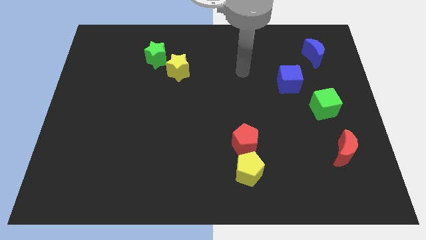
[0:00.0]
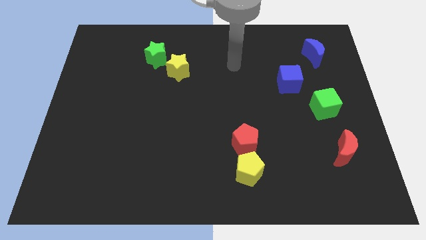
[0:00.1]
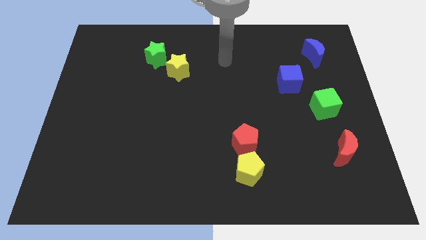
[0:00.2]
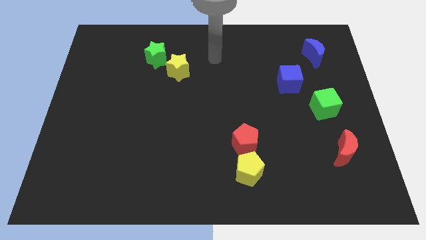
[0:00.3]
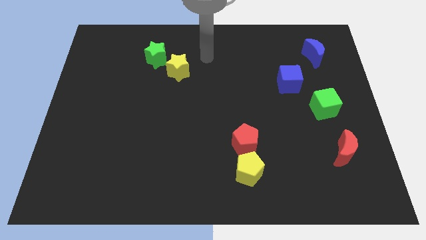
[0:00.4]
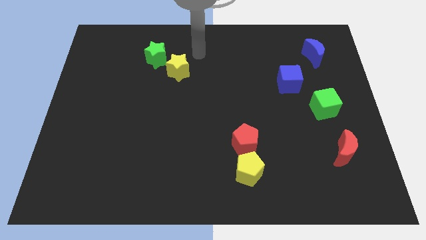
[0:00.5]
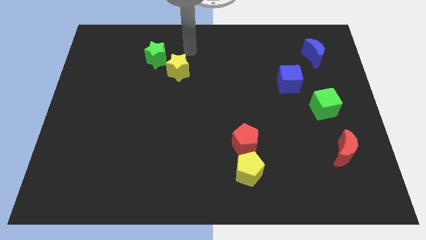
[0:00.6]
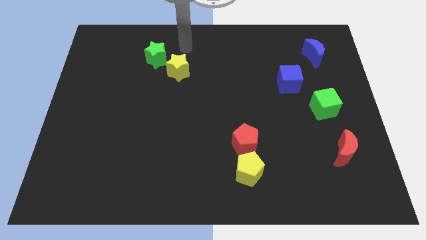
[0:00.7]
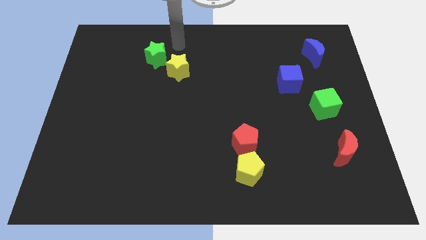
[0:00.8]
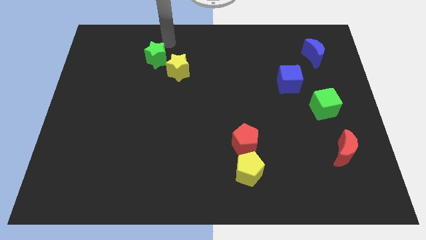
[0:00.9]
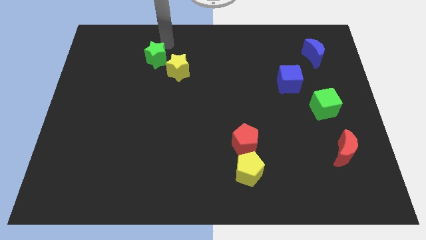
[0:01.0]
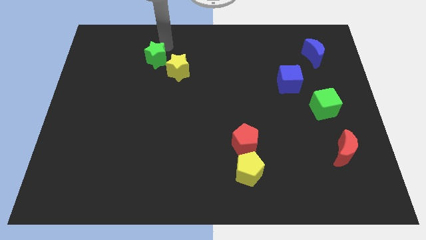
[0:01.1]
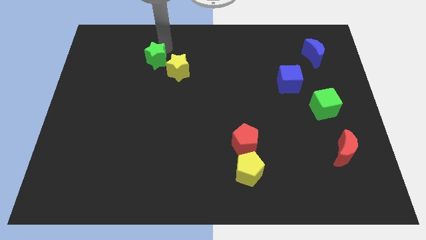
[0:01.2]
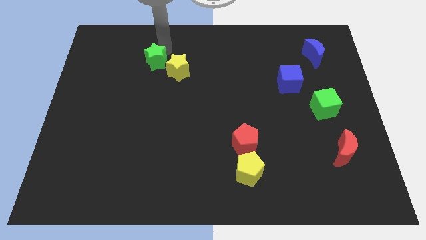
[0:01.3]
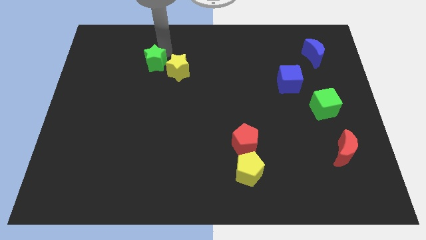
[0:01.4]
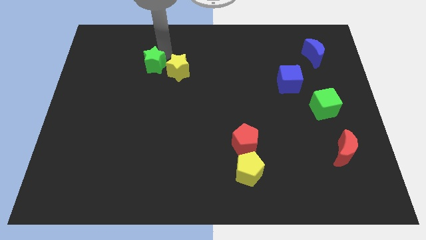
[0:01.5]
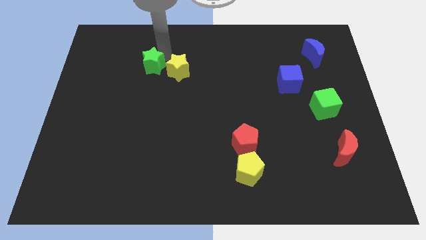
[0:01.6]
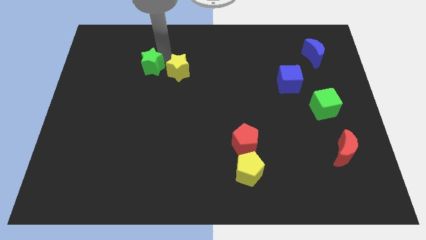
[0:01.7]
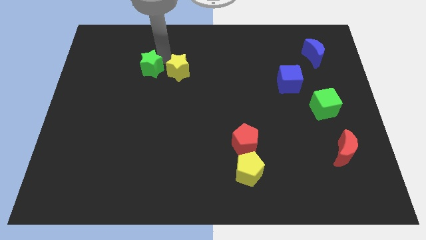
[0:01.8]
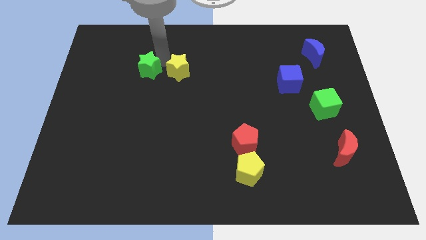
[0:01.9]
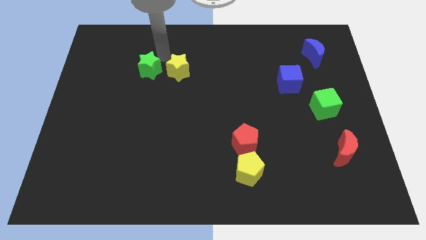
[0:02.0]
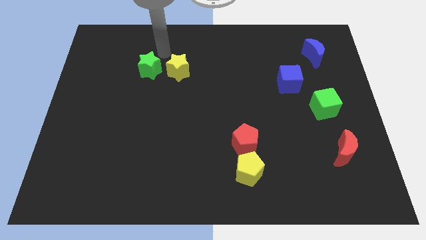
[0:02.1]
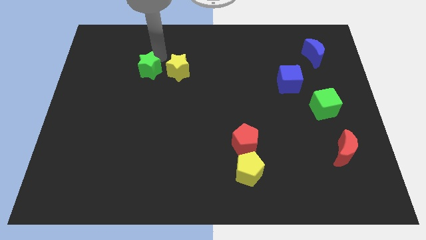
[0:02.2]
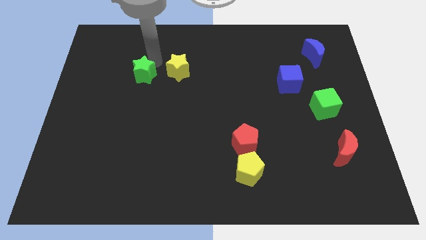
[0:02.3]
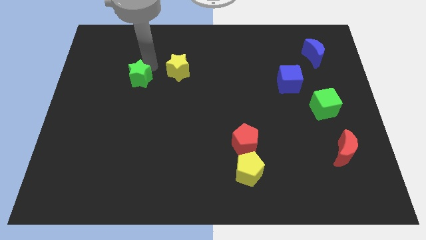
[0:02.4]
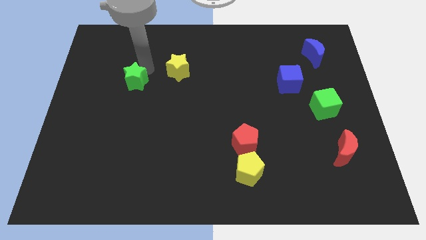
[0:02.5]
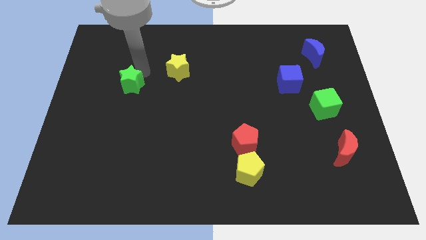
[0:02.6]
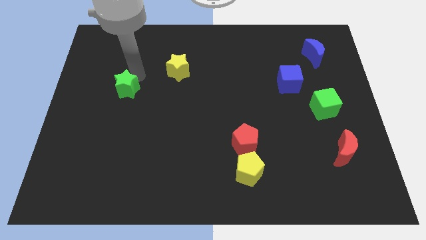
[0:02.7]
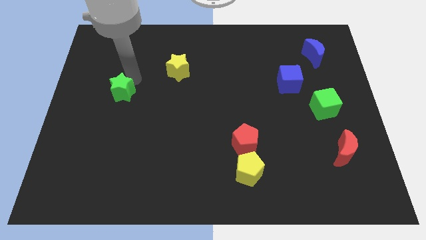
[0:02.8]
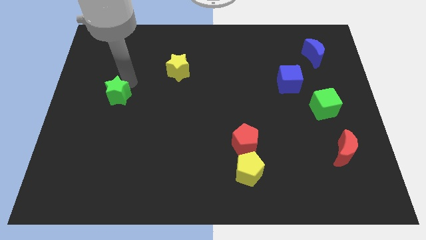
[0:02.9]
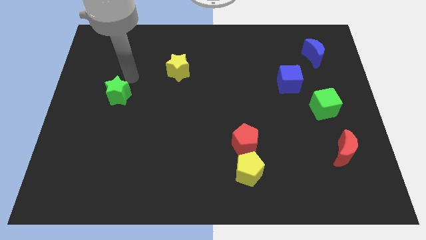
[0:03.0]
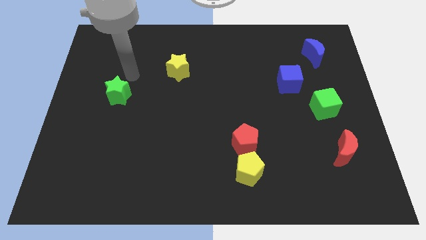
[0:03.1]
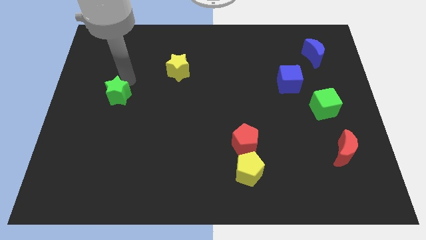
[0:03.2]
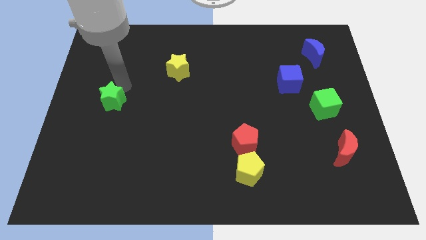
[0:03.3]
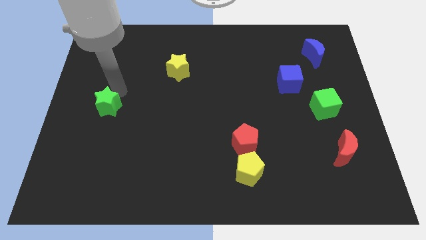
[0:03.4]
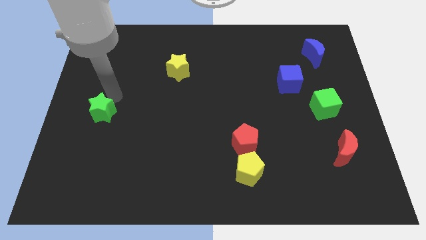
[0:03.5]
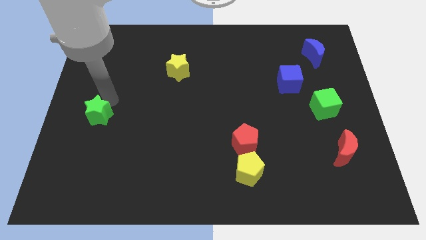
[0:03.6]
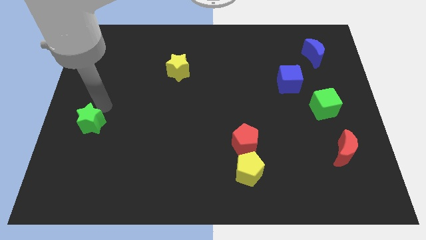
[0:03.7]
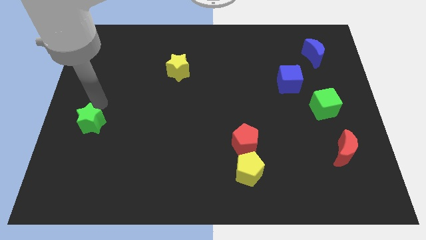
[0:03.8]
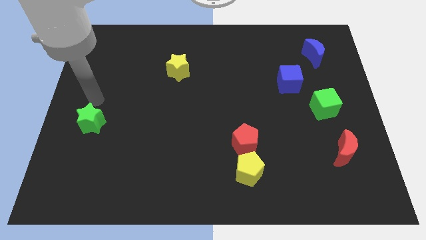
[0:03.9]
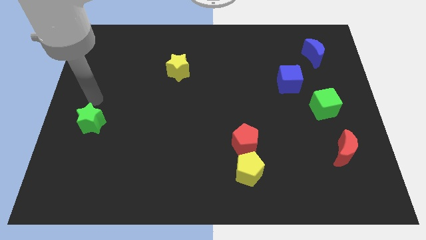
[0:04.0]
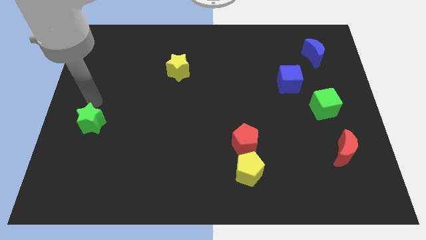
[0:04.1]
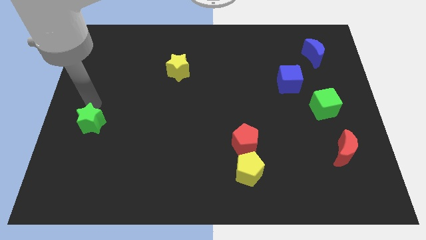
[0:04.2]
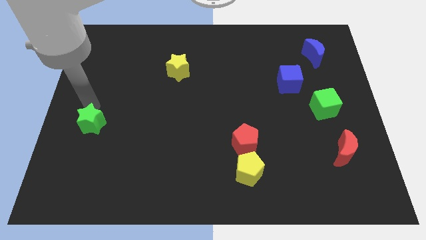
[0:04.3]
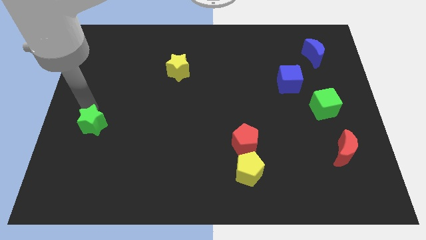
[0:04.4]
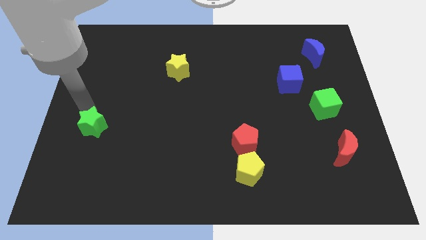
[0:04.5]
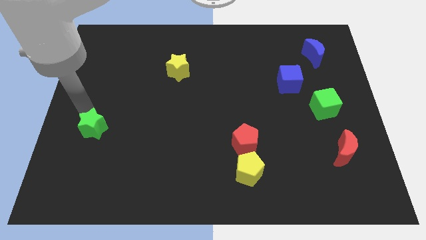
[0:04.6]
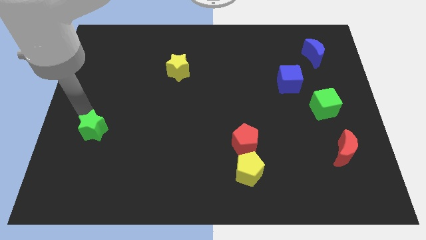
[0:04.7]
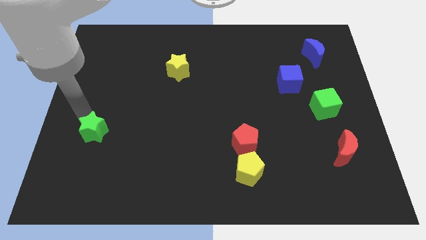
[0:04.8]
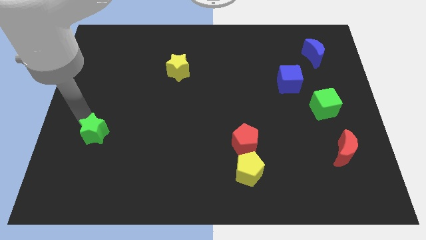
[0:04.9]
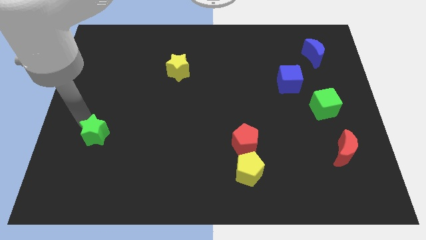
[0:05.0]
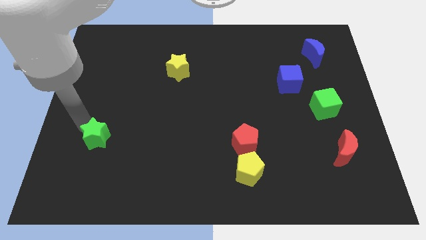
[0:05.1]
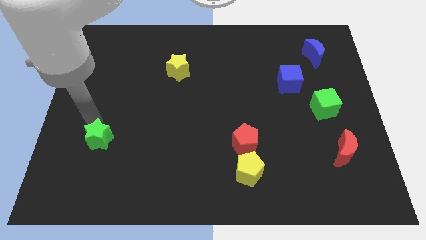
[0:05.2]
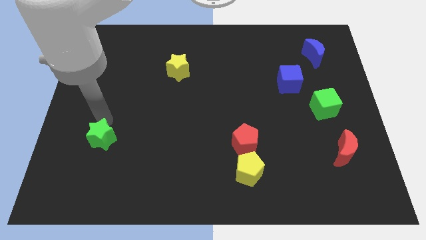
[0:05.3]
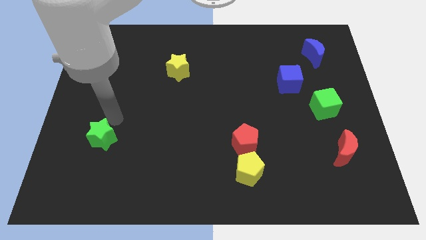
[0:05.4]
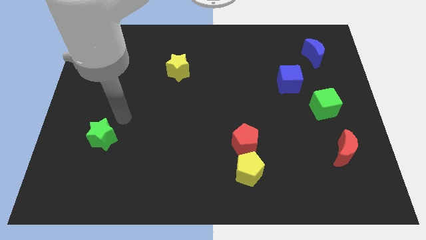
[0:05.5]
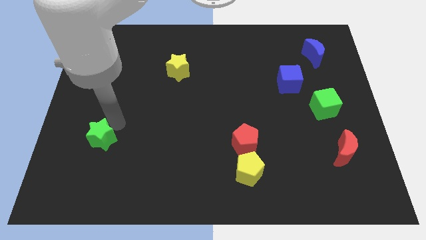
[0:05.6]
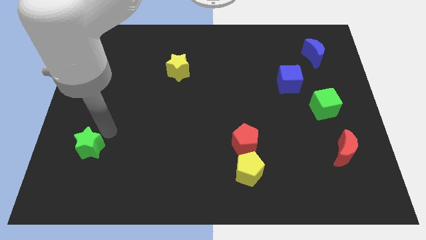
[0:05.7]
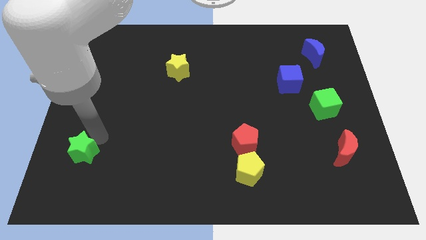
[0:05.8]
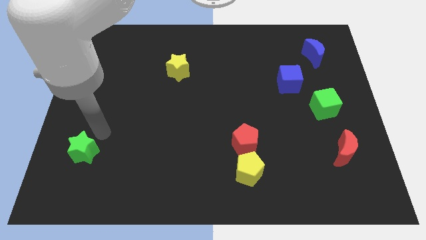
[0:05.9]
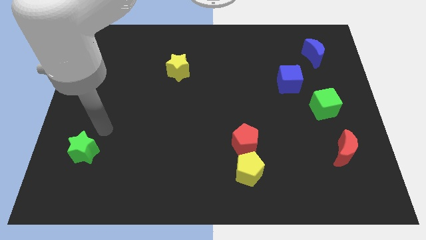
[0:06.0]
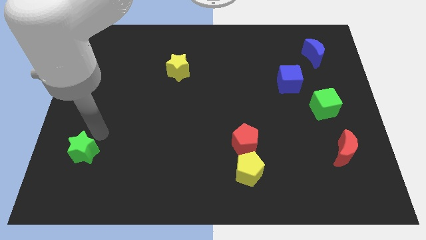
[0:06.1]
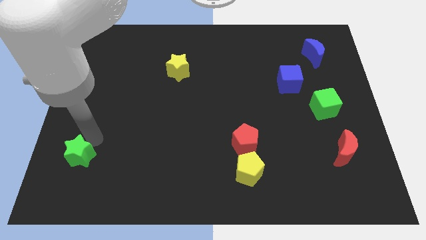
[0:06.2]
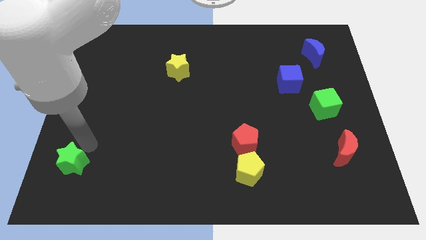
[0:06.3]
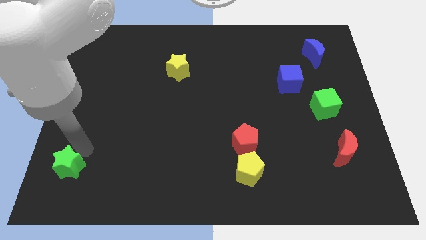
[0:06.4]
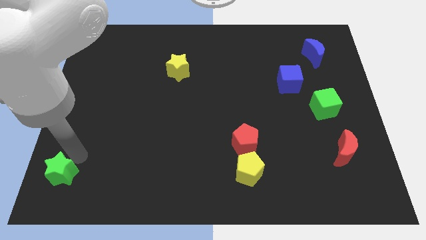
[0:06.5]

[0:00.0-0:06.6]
move the green star to the bottom left of the board
